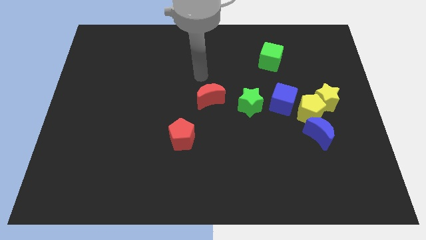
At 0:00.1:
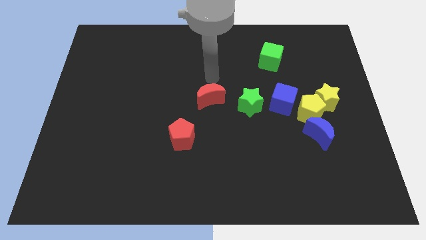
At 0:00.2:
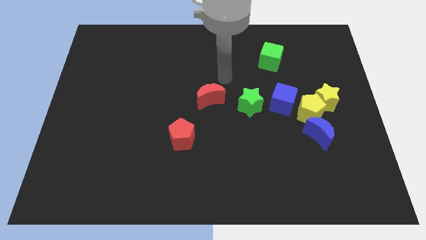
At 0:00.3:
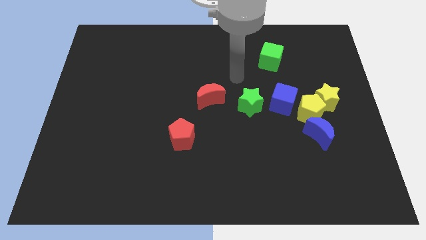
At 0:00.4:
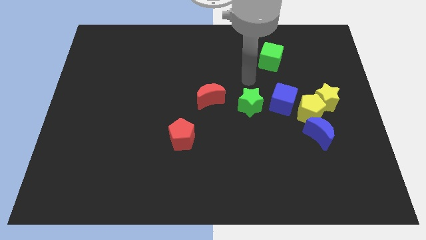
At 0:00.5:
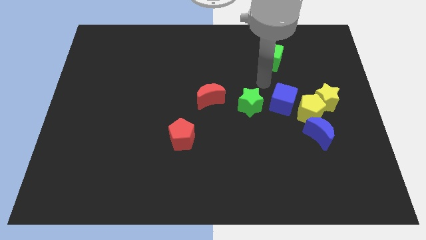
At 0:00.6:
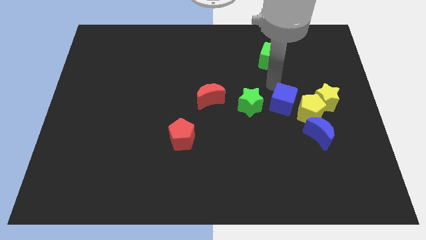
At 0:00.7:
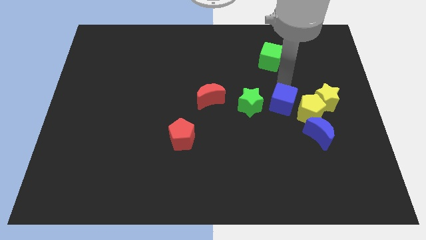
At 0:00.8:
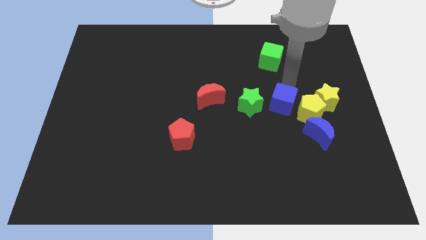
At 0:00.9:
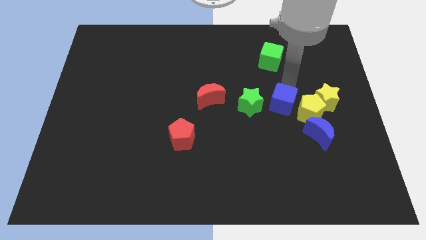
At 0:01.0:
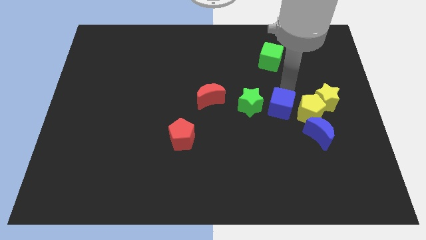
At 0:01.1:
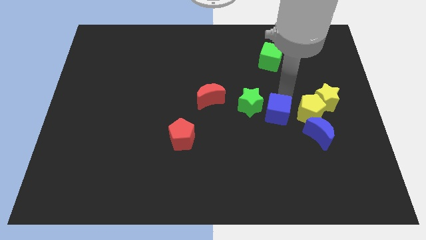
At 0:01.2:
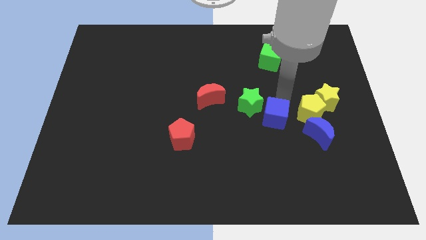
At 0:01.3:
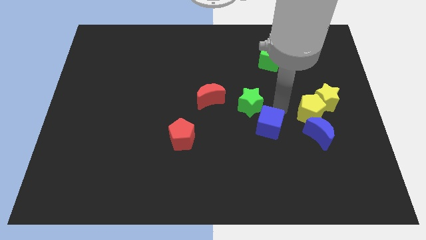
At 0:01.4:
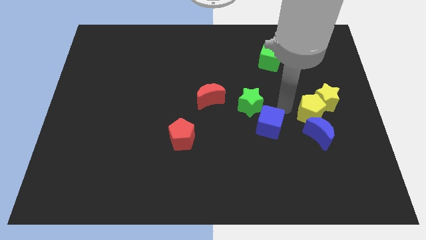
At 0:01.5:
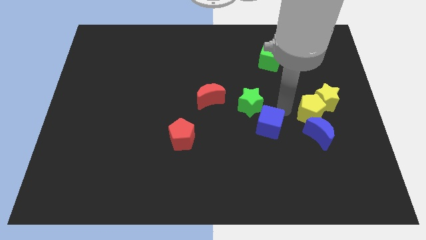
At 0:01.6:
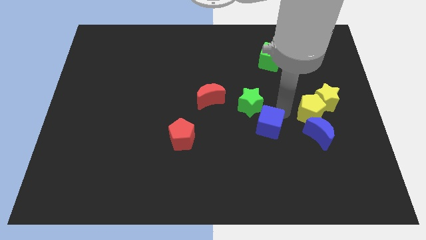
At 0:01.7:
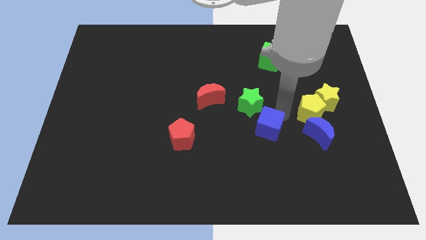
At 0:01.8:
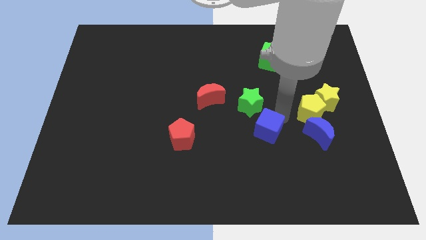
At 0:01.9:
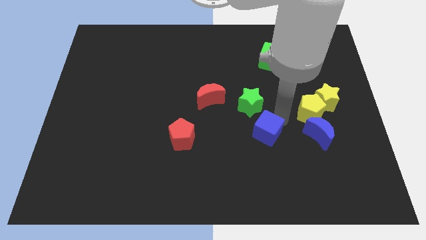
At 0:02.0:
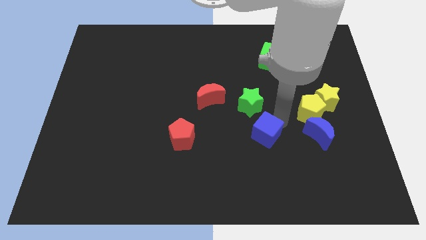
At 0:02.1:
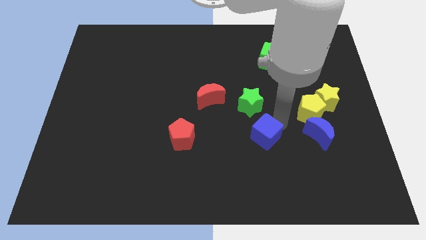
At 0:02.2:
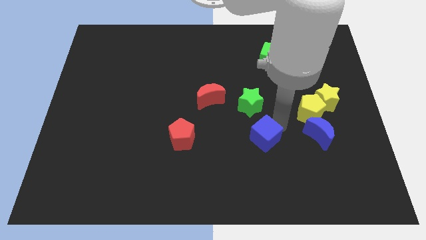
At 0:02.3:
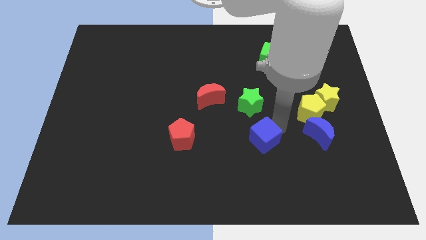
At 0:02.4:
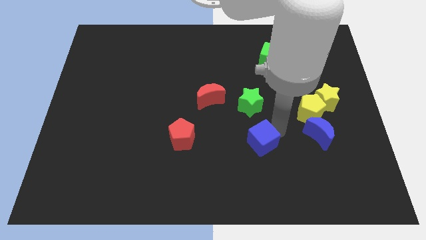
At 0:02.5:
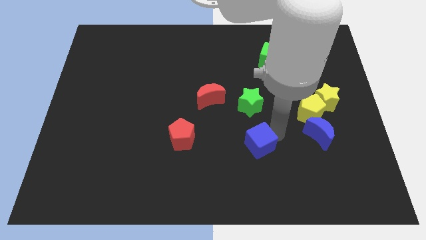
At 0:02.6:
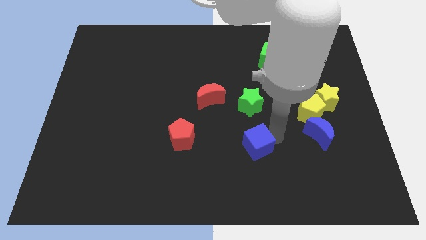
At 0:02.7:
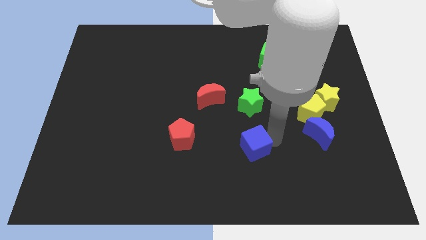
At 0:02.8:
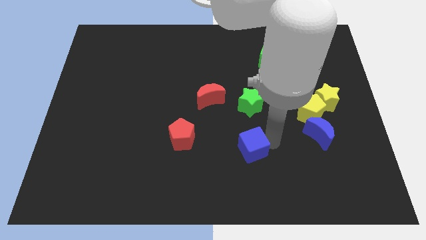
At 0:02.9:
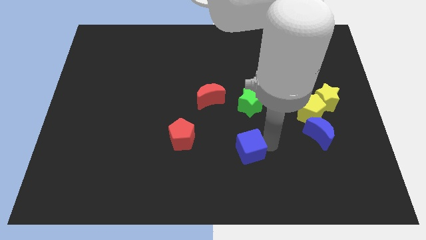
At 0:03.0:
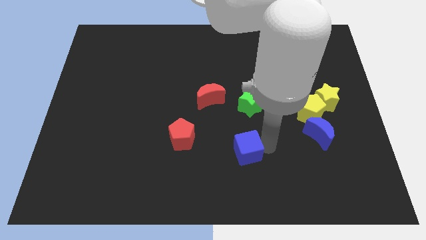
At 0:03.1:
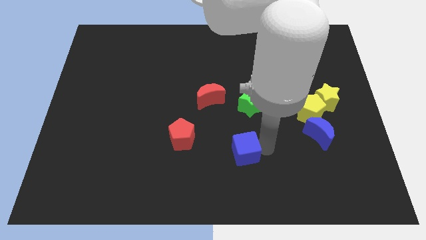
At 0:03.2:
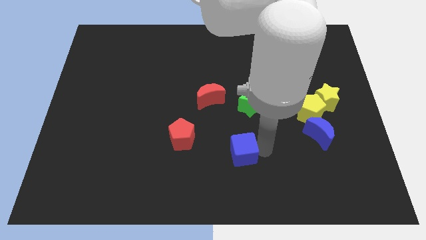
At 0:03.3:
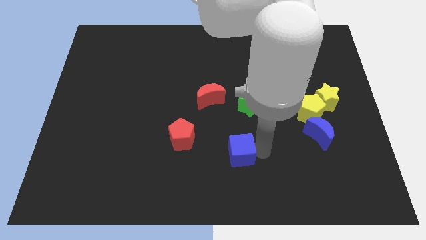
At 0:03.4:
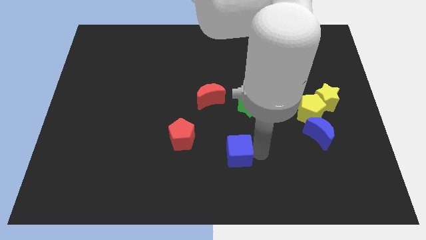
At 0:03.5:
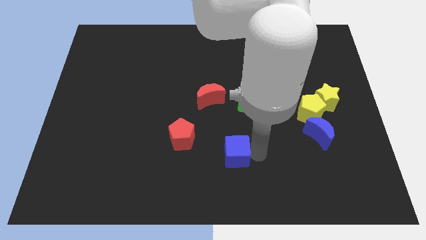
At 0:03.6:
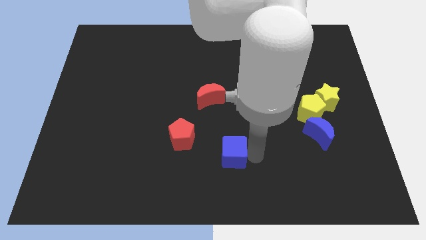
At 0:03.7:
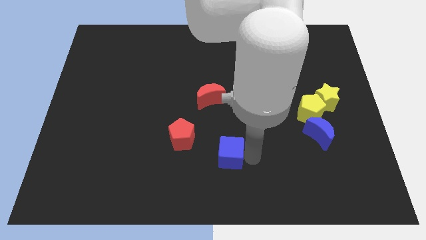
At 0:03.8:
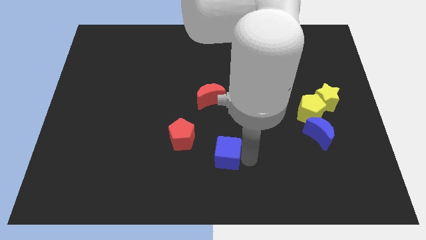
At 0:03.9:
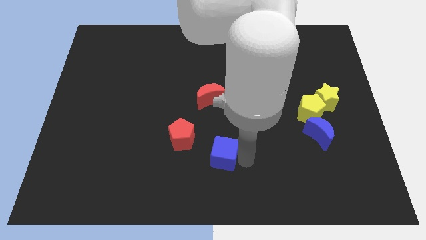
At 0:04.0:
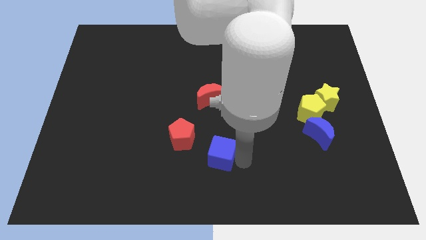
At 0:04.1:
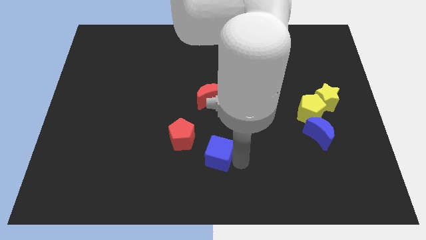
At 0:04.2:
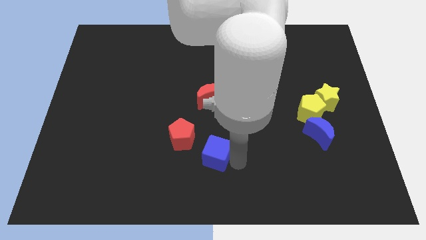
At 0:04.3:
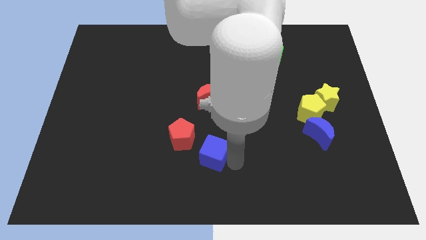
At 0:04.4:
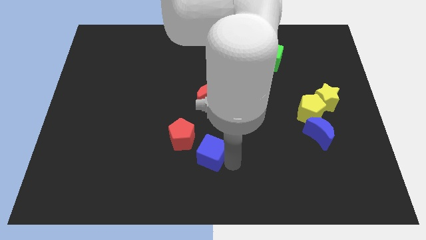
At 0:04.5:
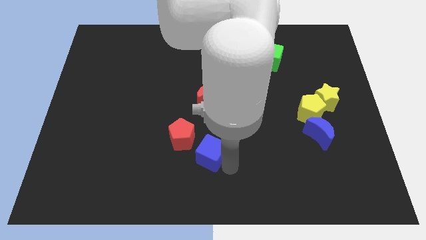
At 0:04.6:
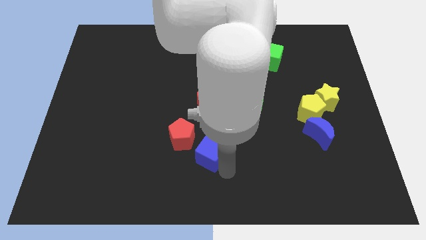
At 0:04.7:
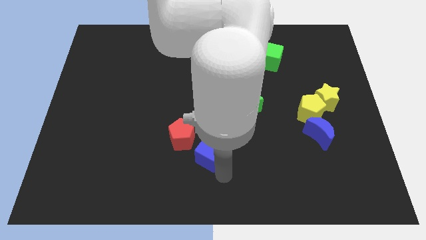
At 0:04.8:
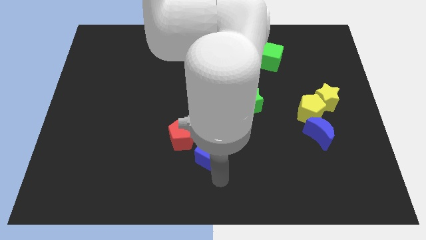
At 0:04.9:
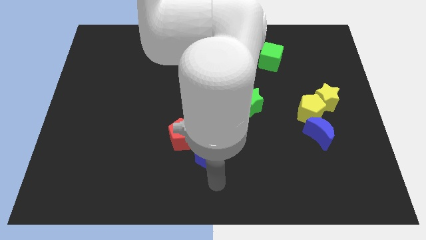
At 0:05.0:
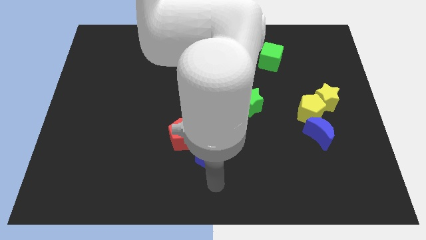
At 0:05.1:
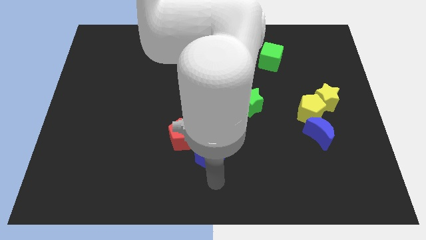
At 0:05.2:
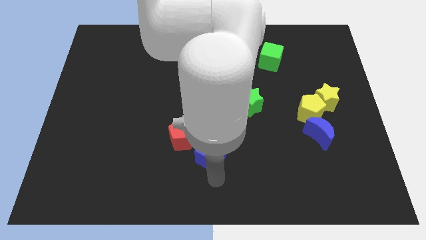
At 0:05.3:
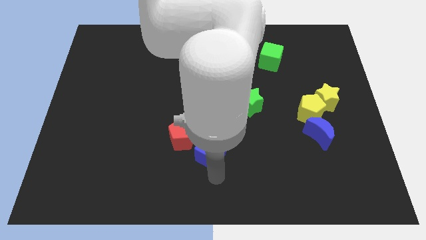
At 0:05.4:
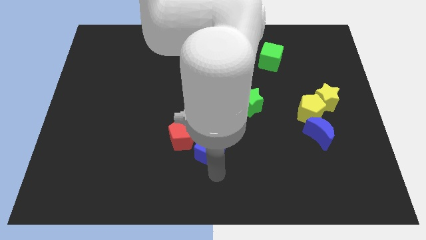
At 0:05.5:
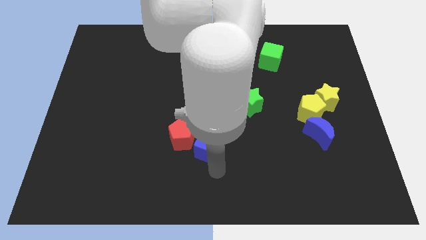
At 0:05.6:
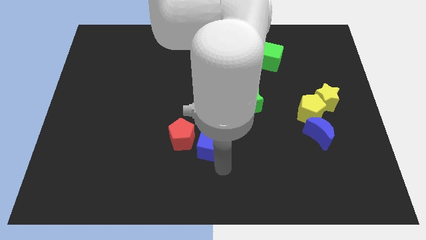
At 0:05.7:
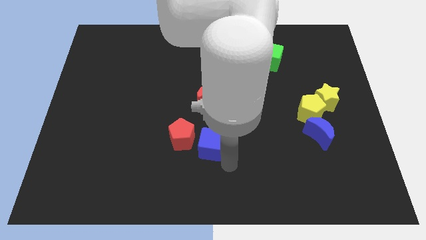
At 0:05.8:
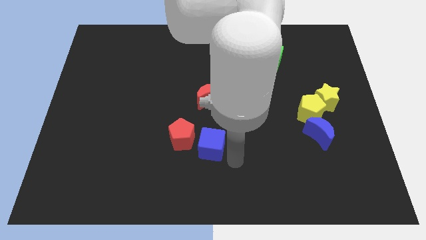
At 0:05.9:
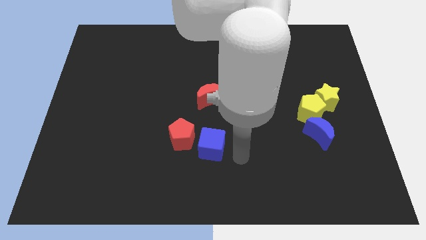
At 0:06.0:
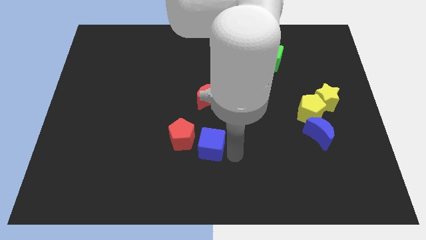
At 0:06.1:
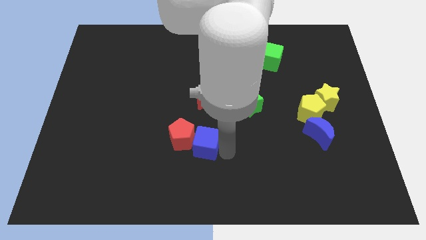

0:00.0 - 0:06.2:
slide the blue cube next to the red pentagon

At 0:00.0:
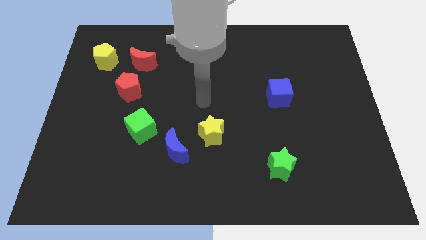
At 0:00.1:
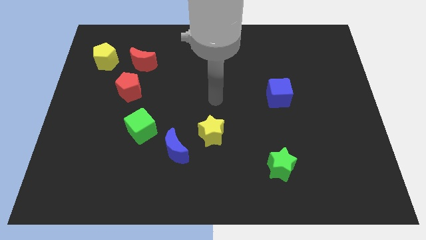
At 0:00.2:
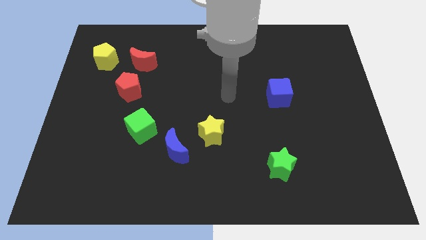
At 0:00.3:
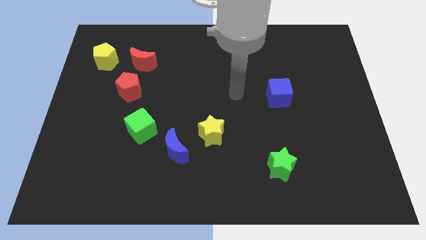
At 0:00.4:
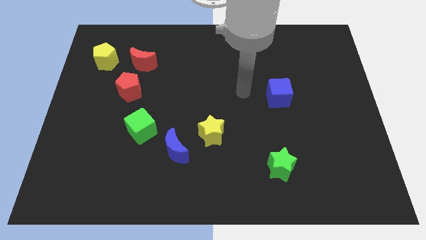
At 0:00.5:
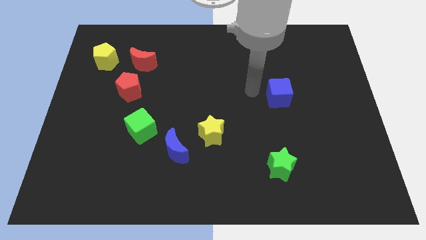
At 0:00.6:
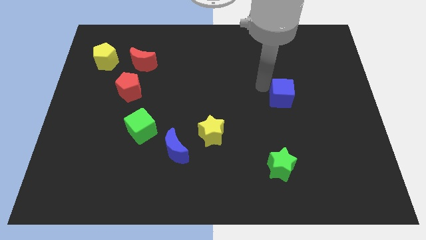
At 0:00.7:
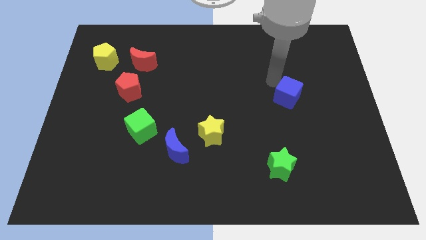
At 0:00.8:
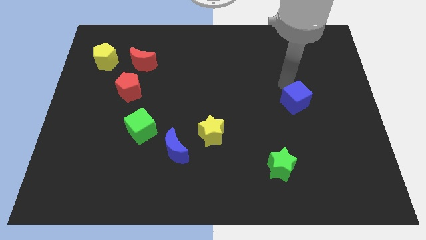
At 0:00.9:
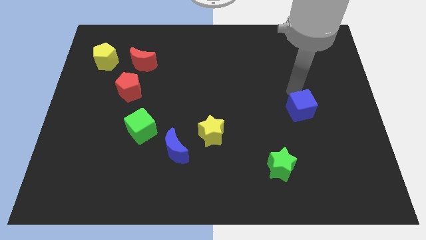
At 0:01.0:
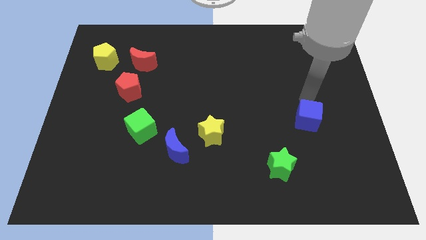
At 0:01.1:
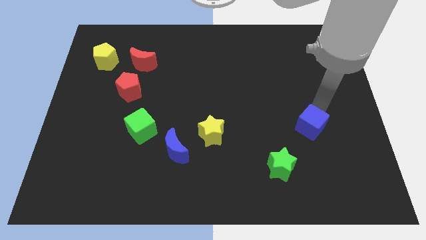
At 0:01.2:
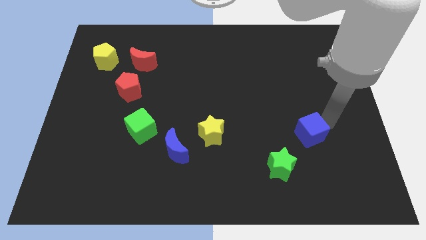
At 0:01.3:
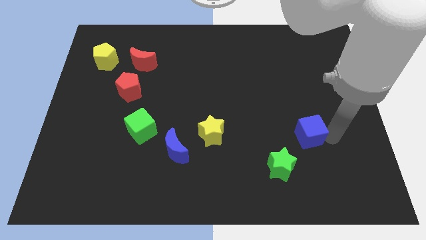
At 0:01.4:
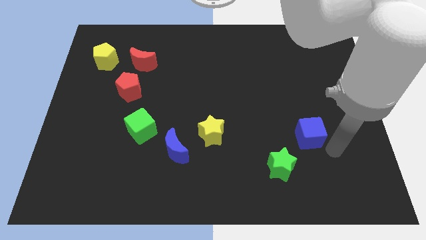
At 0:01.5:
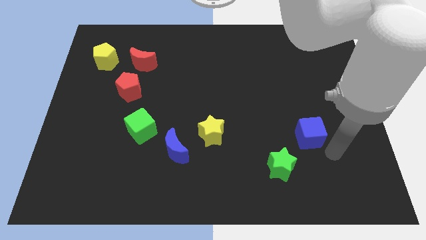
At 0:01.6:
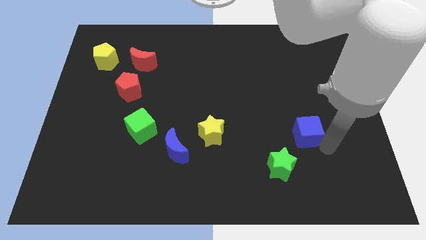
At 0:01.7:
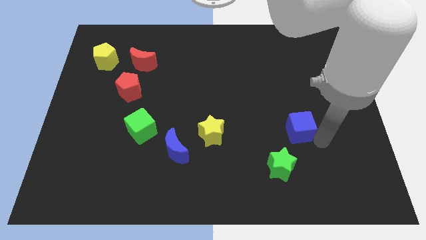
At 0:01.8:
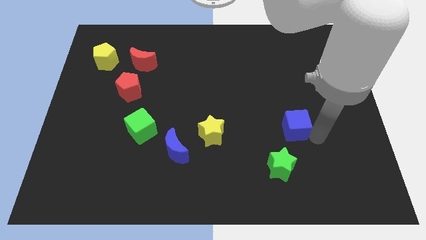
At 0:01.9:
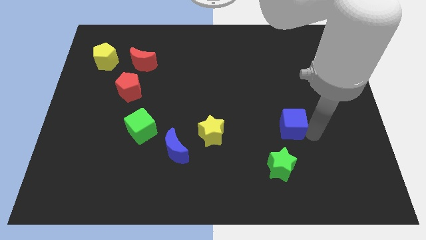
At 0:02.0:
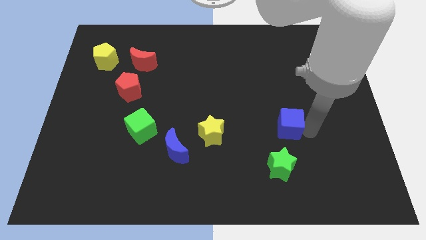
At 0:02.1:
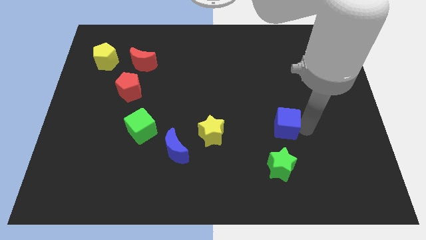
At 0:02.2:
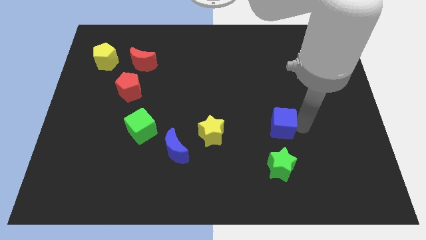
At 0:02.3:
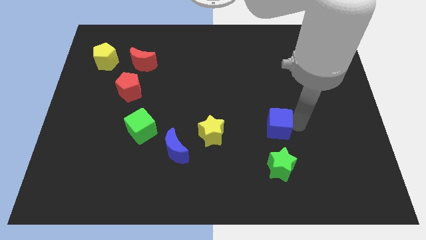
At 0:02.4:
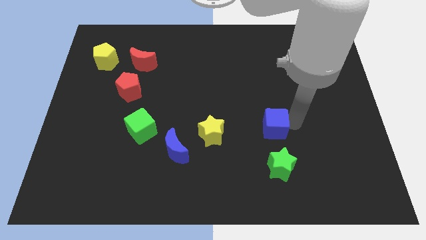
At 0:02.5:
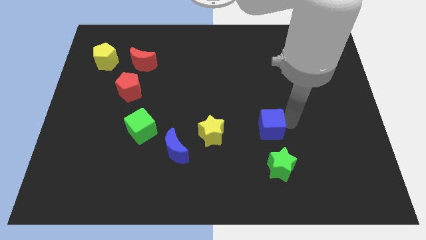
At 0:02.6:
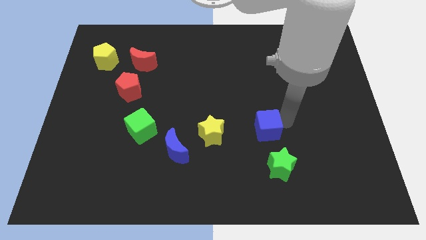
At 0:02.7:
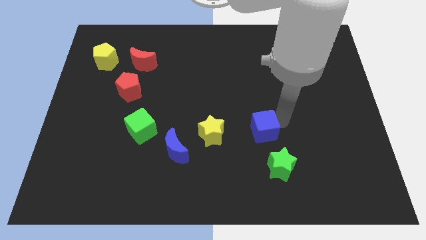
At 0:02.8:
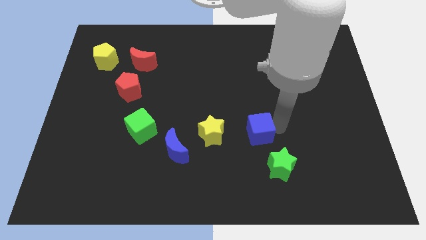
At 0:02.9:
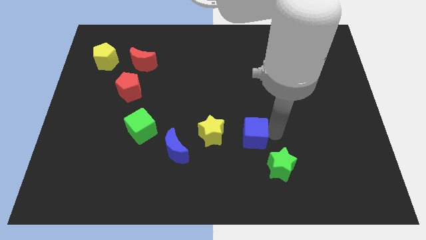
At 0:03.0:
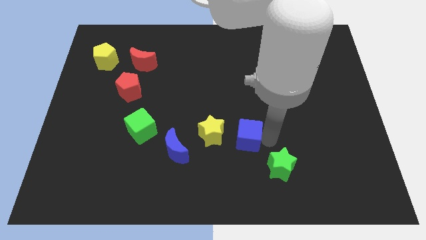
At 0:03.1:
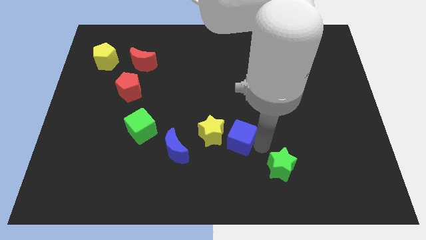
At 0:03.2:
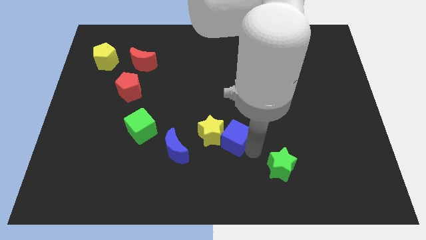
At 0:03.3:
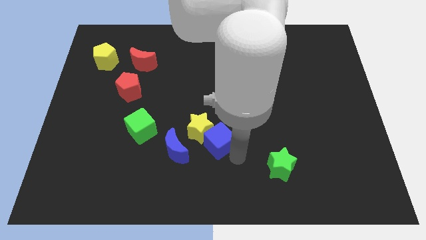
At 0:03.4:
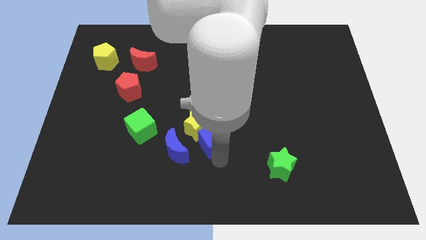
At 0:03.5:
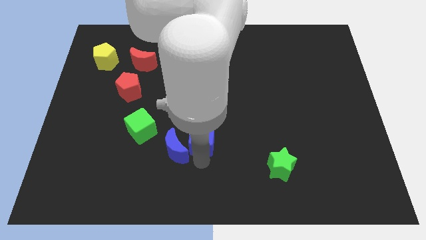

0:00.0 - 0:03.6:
slide the blue cube to the blue moon
